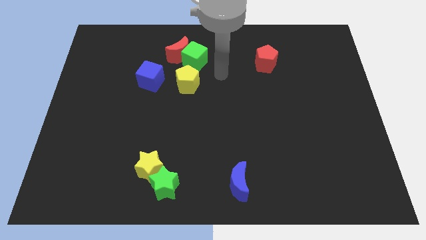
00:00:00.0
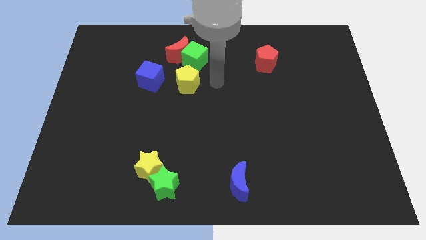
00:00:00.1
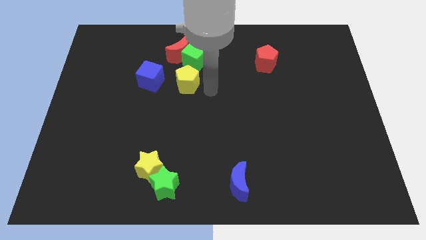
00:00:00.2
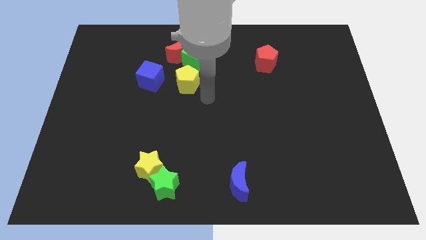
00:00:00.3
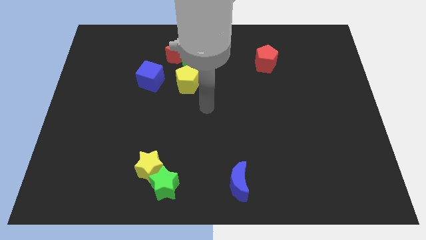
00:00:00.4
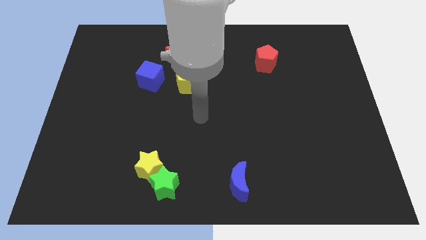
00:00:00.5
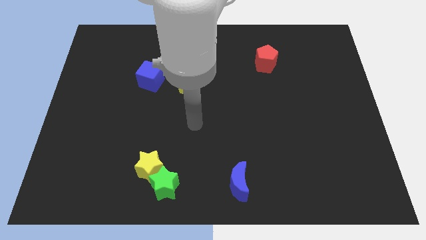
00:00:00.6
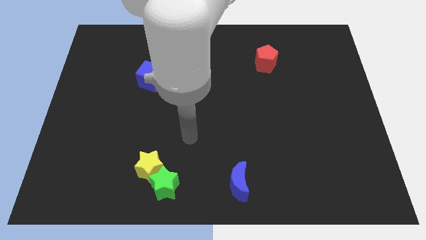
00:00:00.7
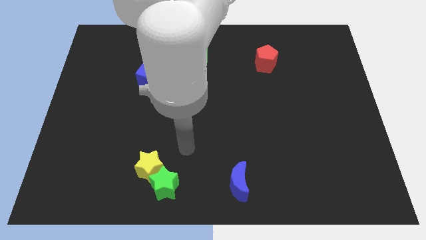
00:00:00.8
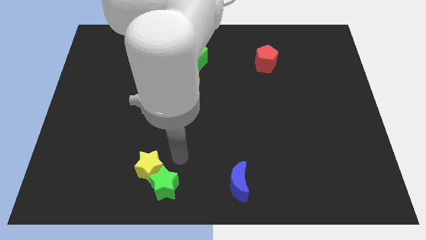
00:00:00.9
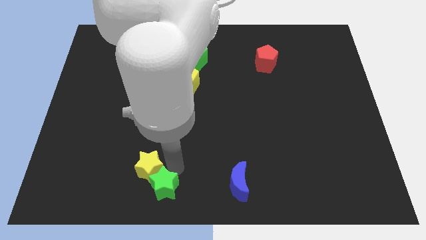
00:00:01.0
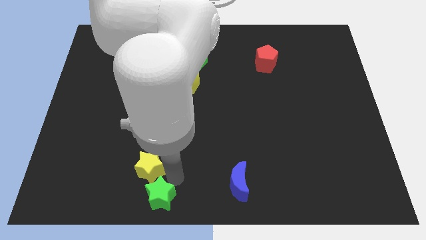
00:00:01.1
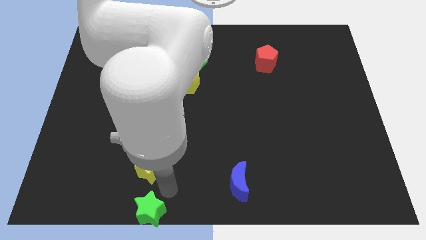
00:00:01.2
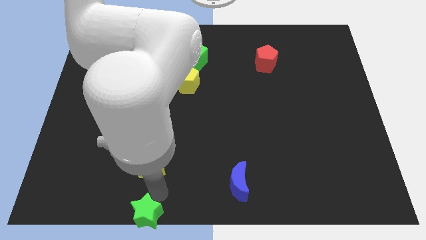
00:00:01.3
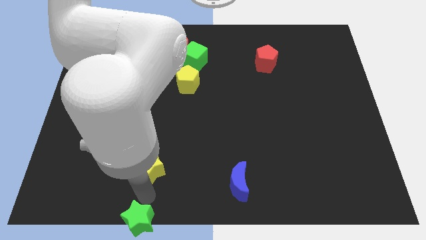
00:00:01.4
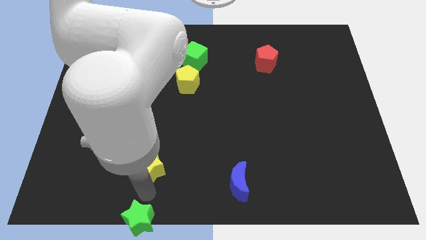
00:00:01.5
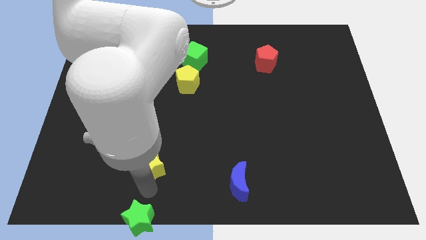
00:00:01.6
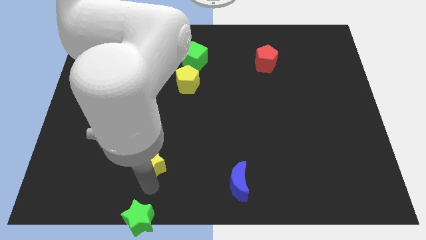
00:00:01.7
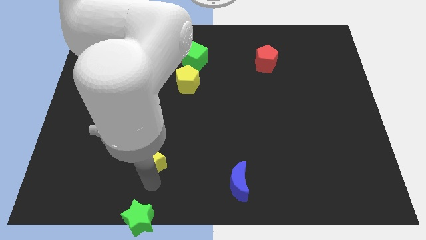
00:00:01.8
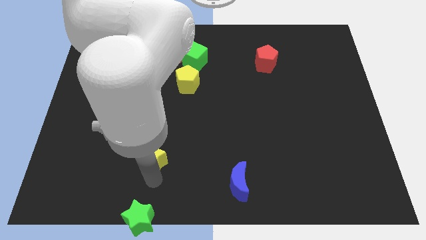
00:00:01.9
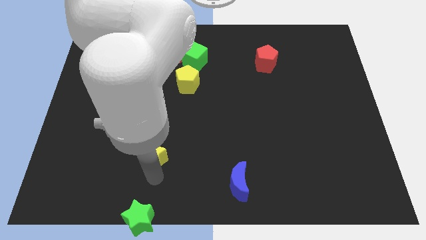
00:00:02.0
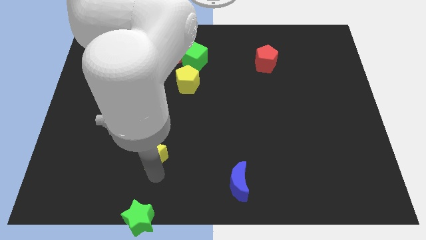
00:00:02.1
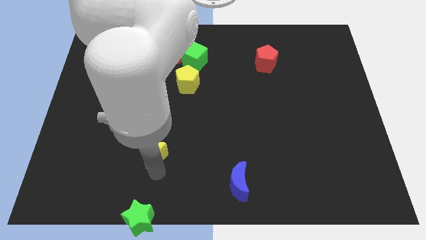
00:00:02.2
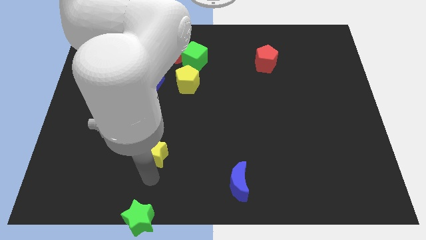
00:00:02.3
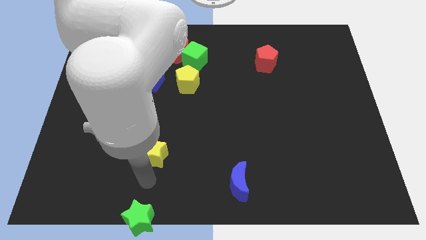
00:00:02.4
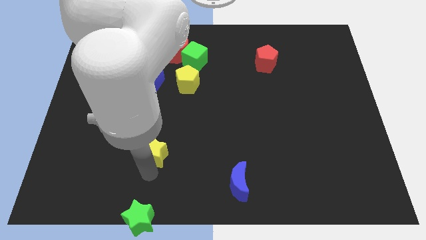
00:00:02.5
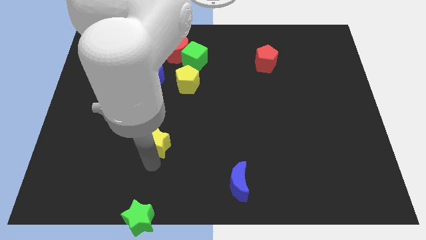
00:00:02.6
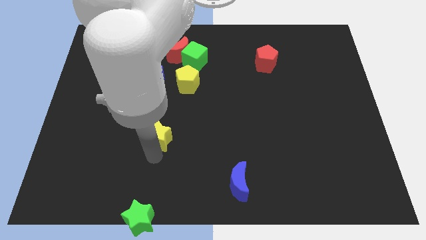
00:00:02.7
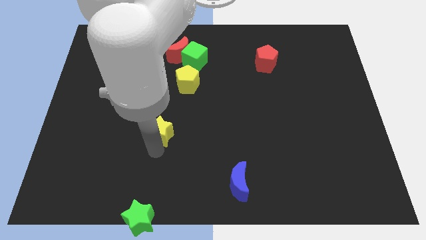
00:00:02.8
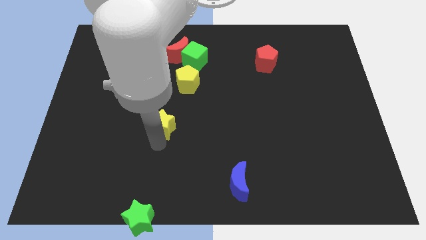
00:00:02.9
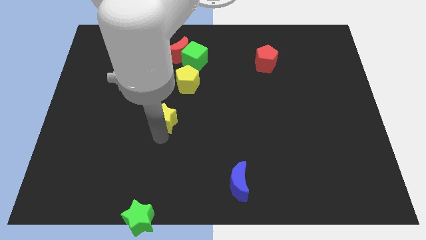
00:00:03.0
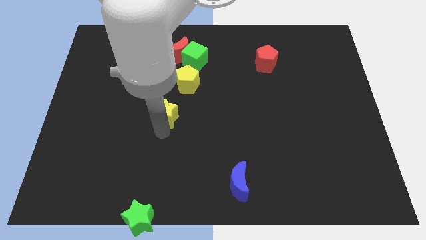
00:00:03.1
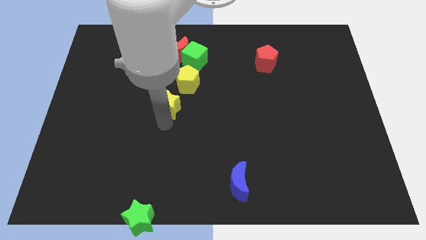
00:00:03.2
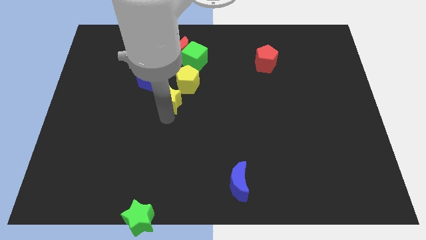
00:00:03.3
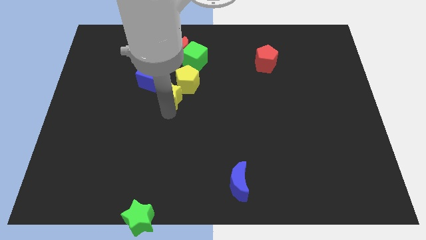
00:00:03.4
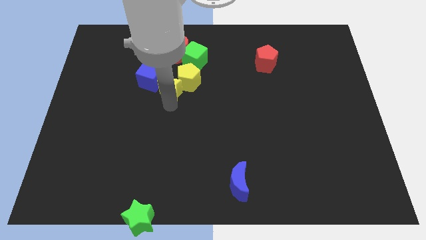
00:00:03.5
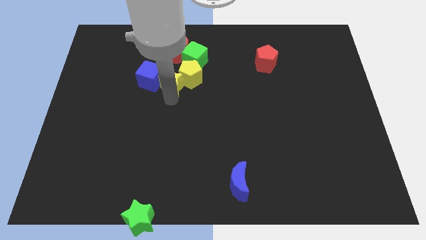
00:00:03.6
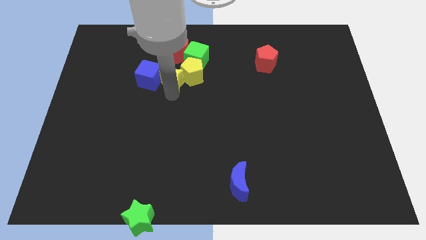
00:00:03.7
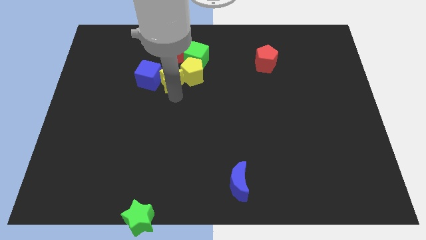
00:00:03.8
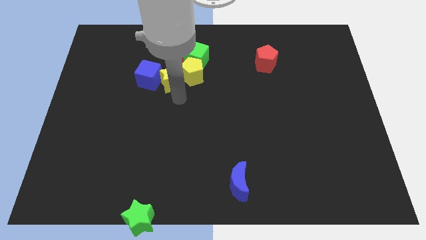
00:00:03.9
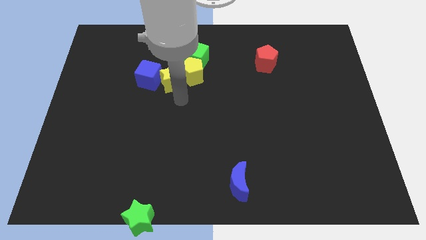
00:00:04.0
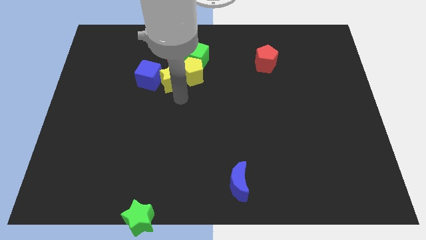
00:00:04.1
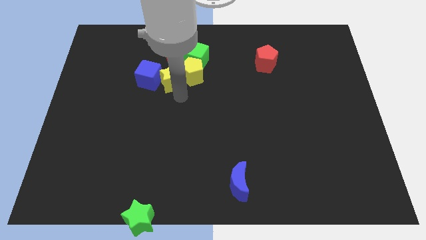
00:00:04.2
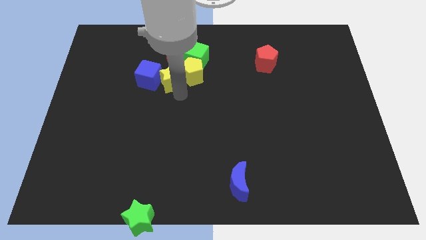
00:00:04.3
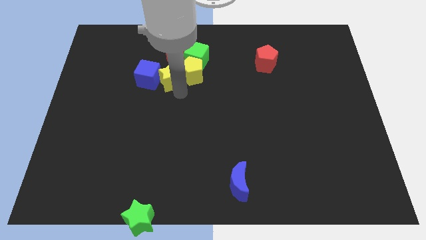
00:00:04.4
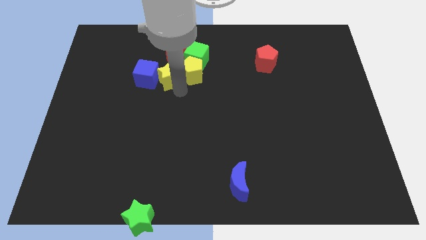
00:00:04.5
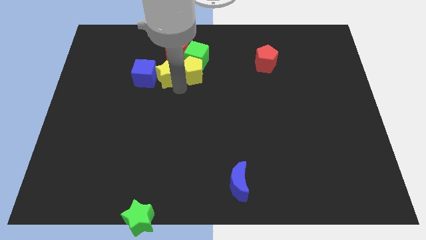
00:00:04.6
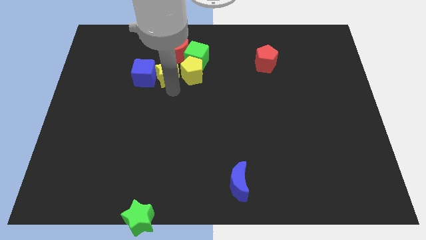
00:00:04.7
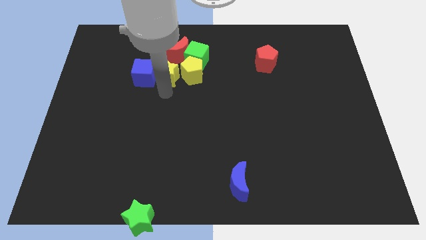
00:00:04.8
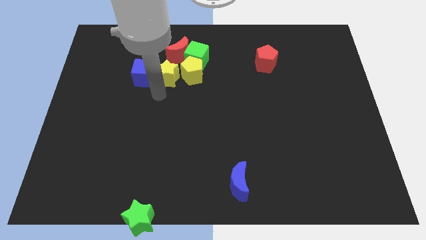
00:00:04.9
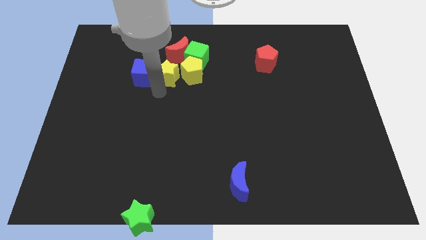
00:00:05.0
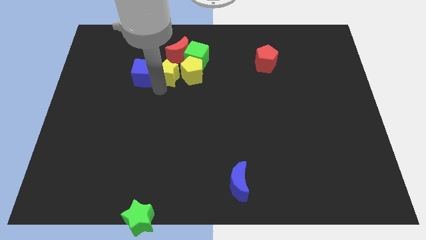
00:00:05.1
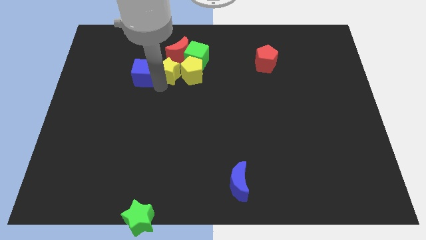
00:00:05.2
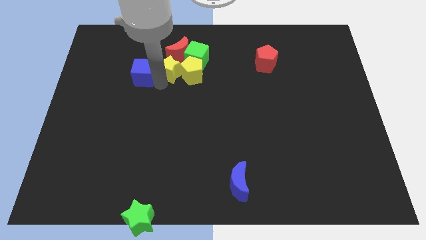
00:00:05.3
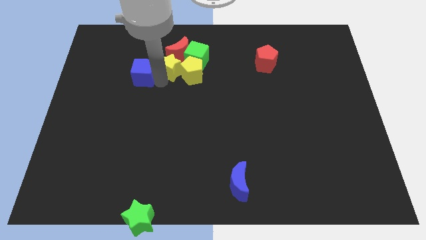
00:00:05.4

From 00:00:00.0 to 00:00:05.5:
push the yellow star next to the red moon

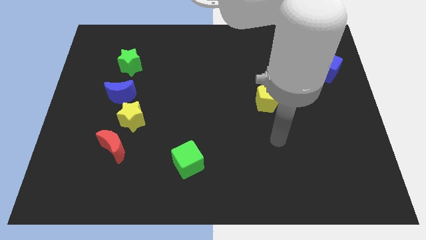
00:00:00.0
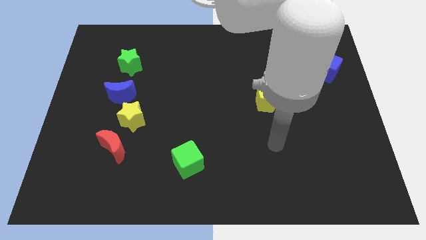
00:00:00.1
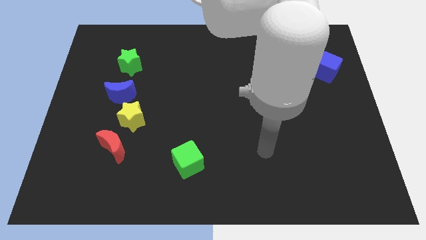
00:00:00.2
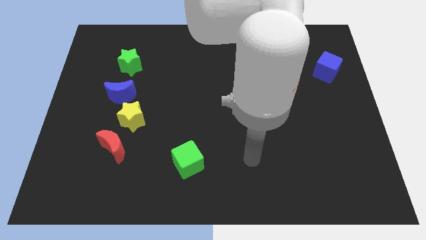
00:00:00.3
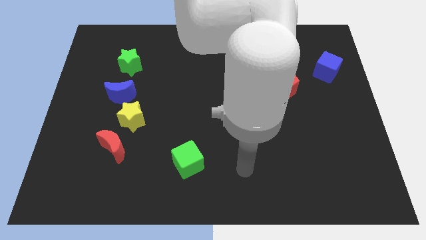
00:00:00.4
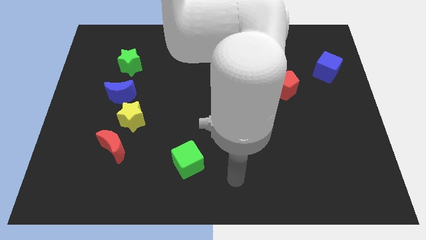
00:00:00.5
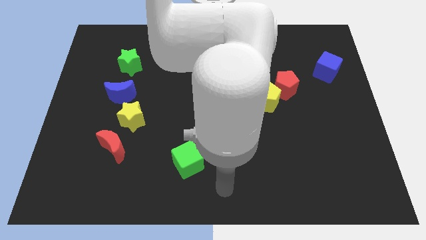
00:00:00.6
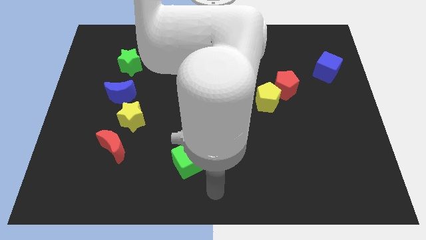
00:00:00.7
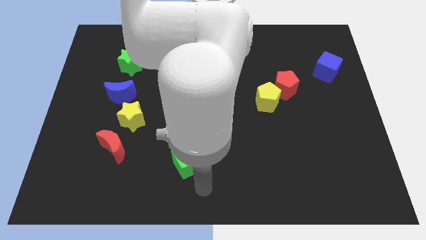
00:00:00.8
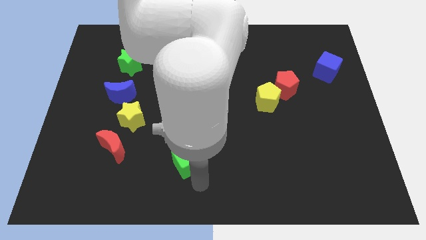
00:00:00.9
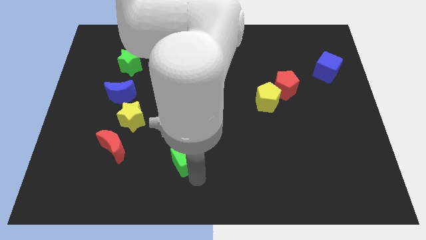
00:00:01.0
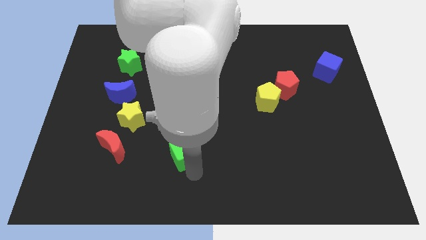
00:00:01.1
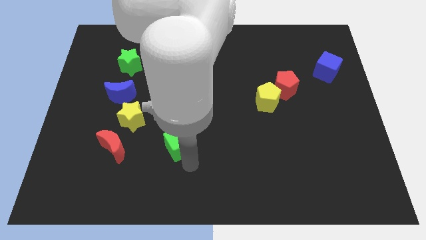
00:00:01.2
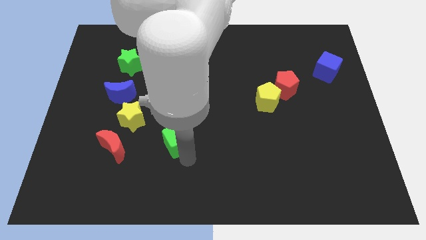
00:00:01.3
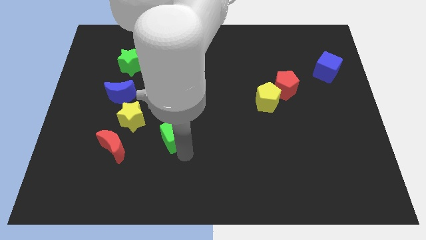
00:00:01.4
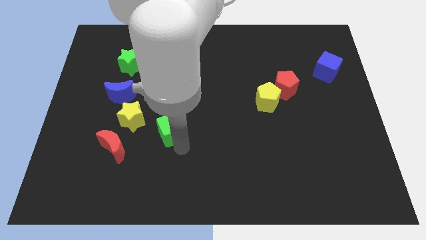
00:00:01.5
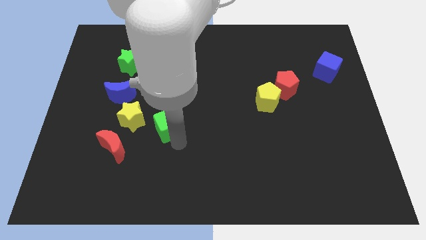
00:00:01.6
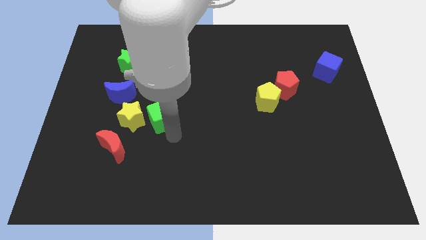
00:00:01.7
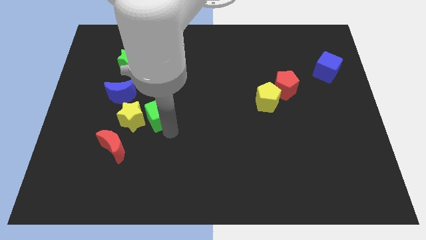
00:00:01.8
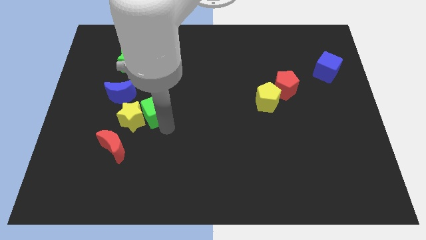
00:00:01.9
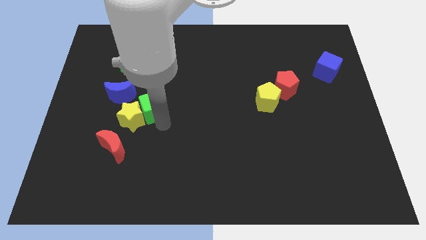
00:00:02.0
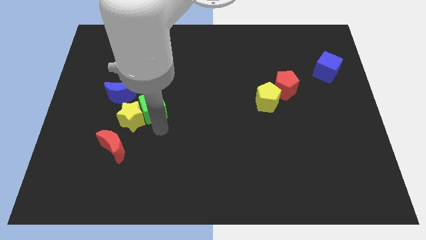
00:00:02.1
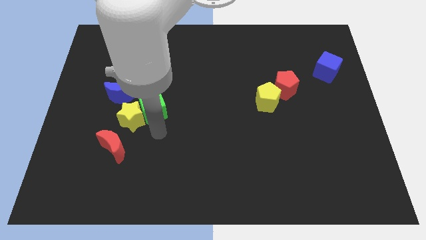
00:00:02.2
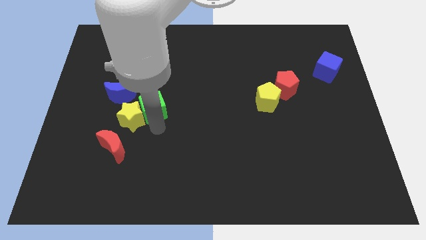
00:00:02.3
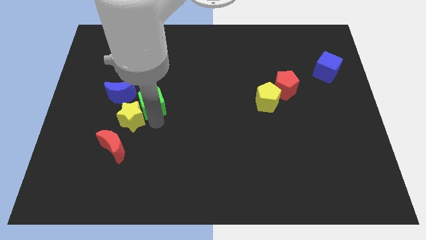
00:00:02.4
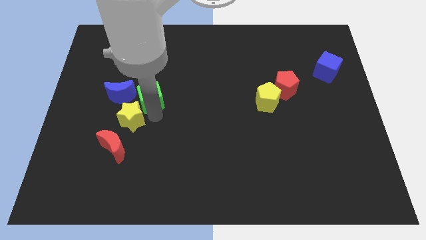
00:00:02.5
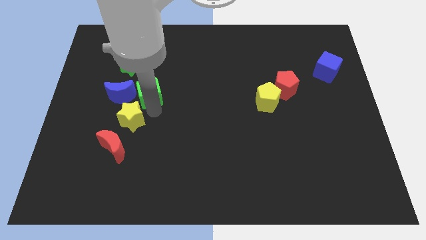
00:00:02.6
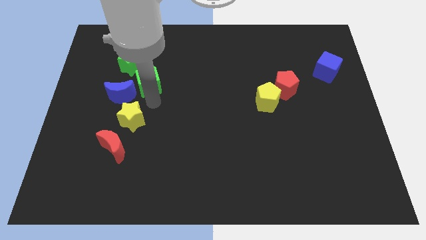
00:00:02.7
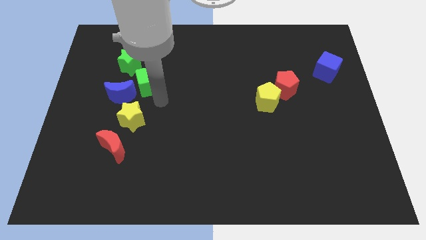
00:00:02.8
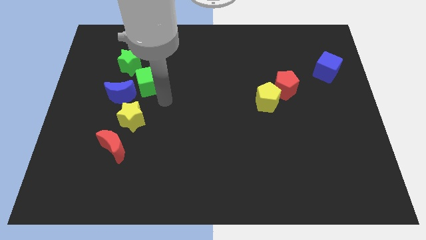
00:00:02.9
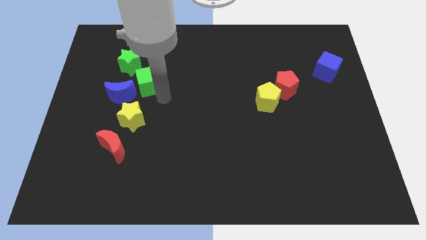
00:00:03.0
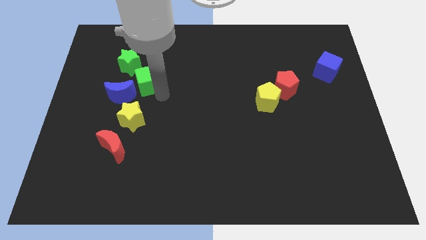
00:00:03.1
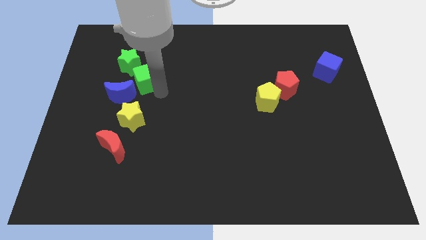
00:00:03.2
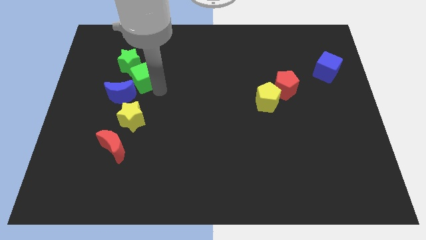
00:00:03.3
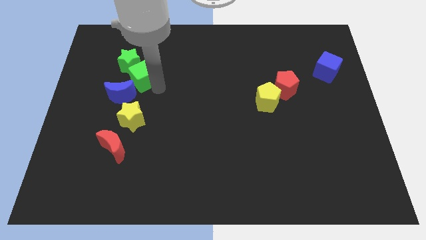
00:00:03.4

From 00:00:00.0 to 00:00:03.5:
push the green cube towards the green star
